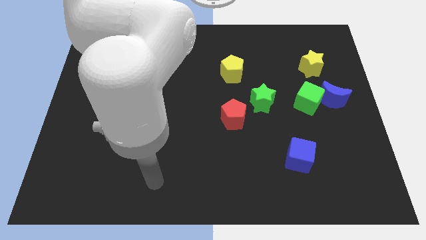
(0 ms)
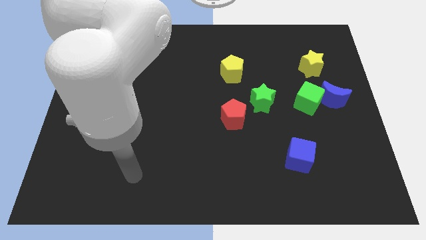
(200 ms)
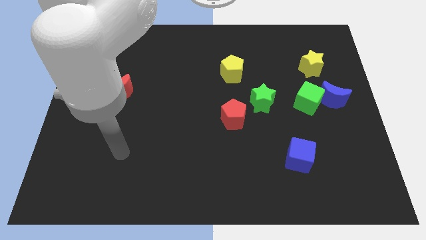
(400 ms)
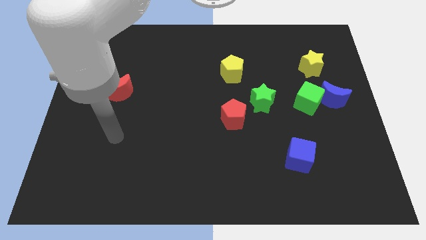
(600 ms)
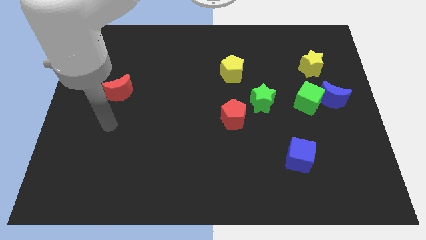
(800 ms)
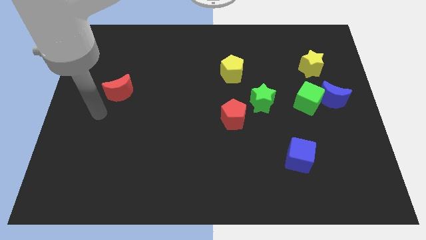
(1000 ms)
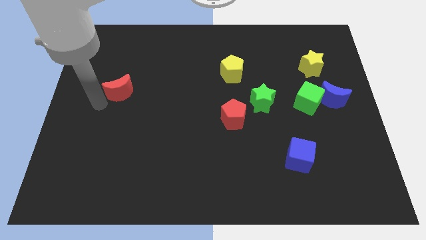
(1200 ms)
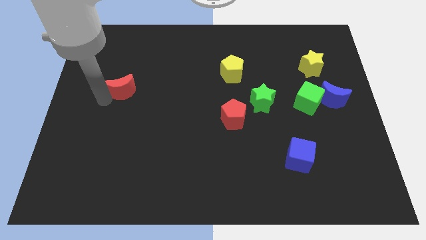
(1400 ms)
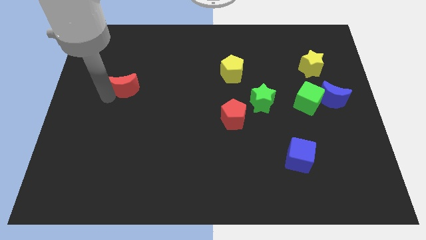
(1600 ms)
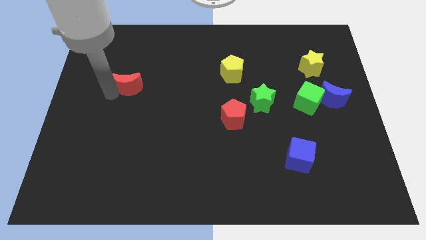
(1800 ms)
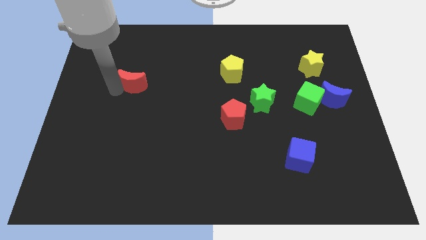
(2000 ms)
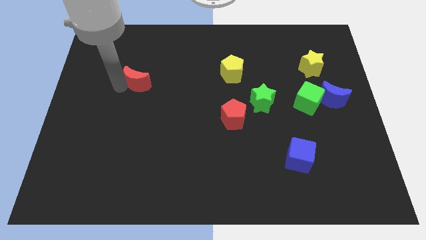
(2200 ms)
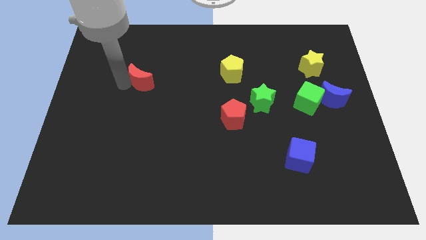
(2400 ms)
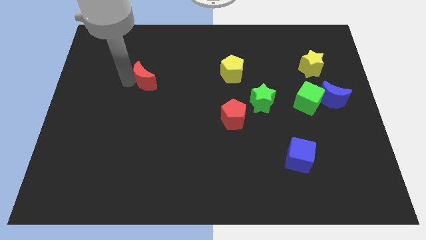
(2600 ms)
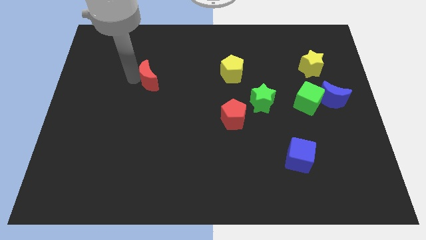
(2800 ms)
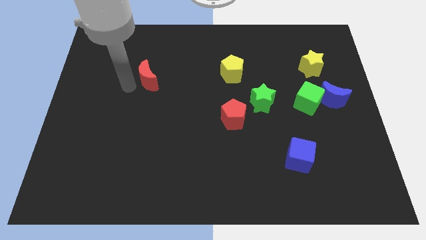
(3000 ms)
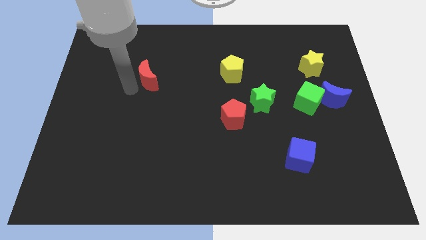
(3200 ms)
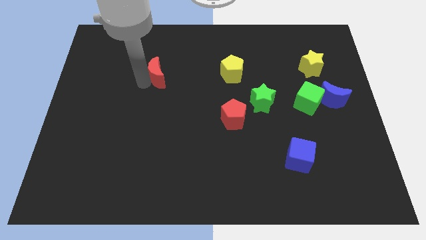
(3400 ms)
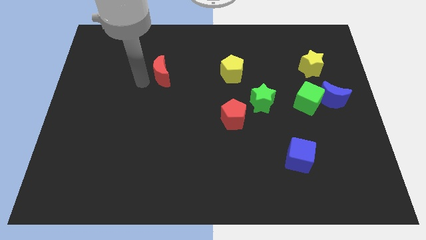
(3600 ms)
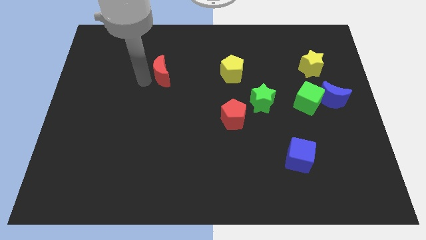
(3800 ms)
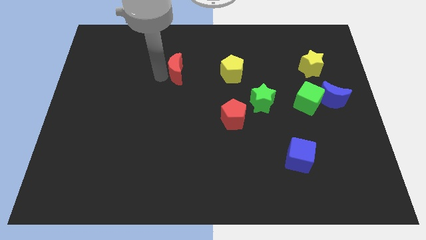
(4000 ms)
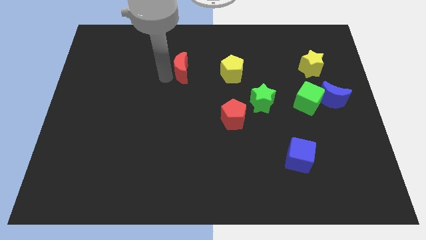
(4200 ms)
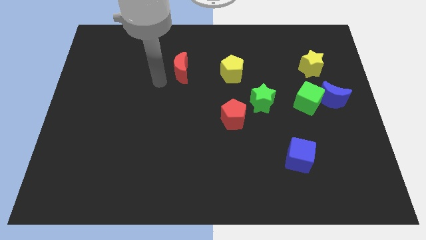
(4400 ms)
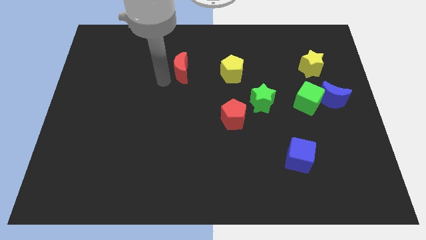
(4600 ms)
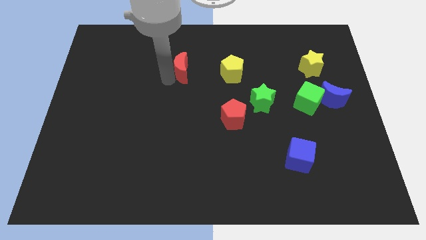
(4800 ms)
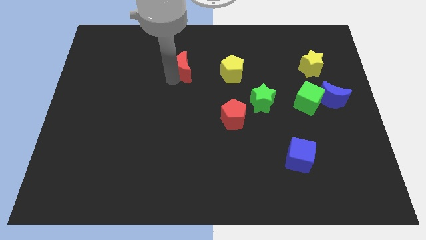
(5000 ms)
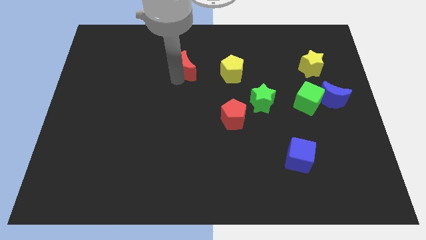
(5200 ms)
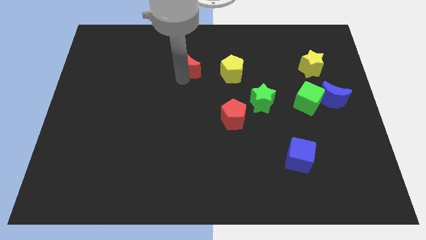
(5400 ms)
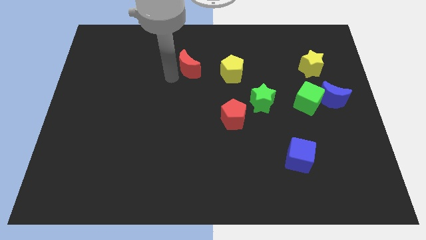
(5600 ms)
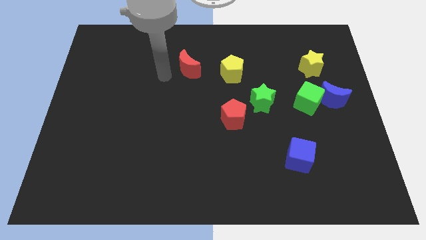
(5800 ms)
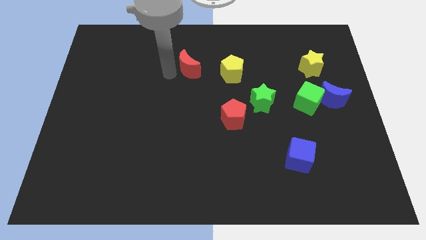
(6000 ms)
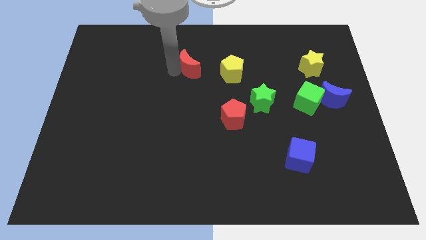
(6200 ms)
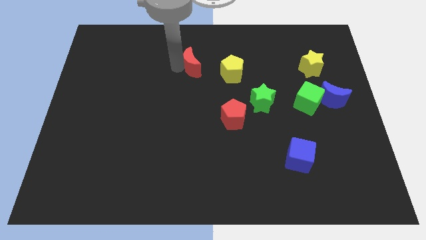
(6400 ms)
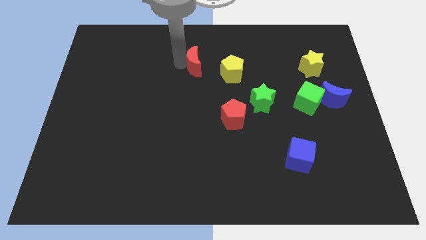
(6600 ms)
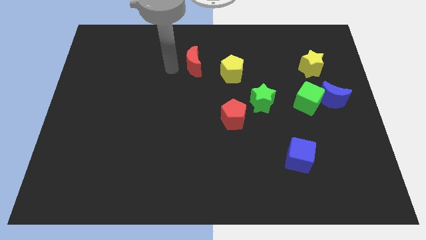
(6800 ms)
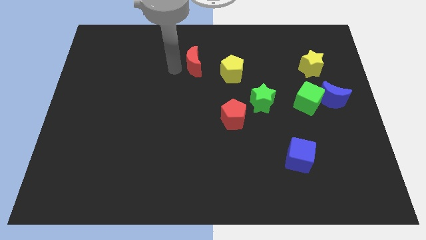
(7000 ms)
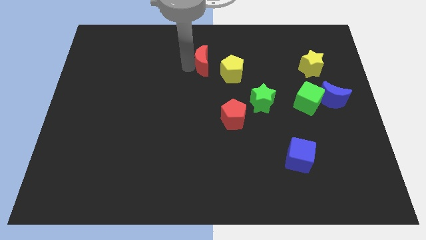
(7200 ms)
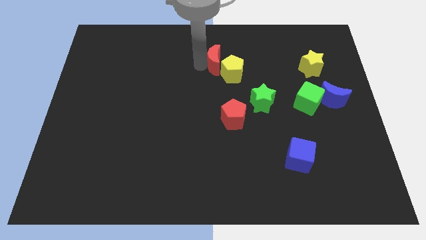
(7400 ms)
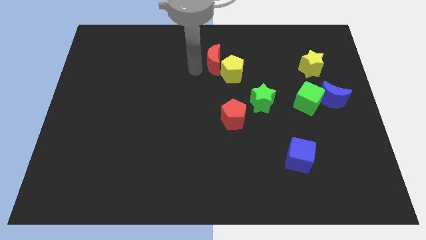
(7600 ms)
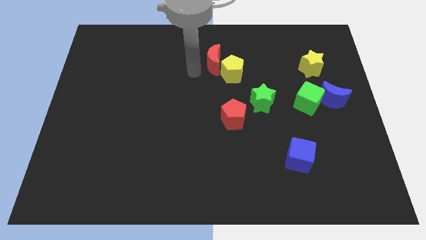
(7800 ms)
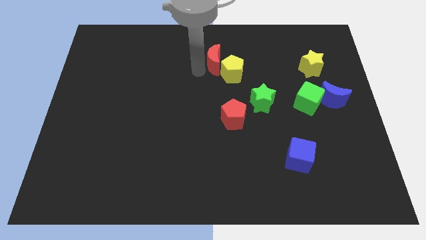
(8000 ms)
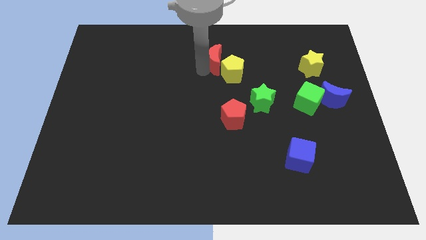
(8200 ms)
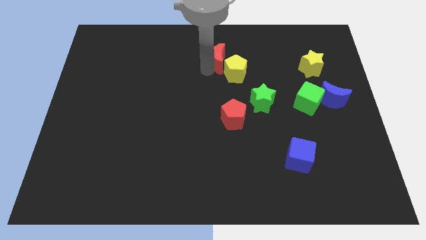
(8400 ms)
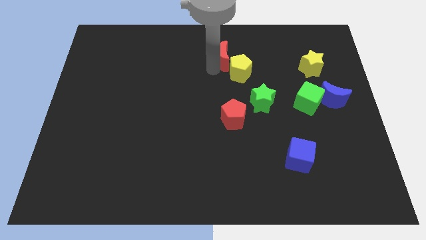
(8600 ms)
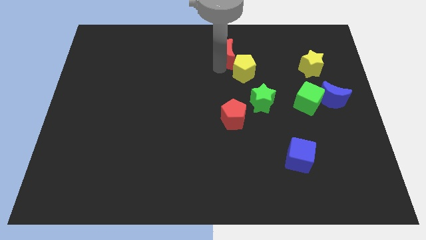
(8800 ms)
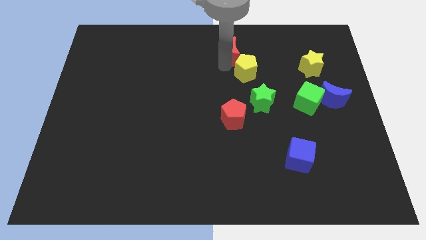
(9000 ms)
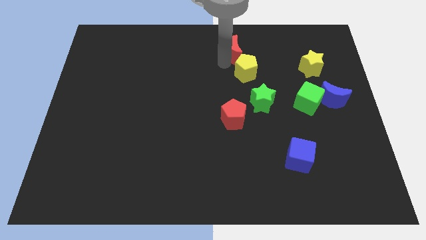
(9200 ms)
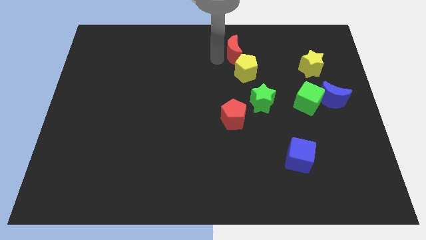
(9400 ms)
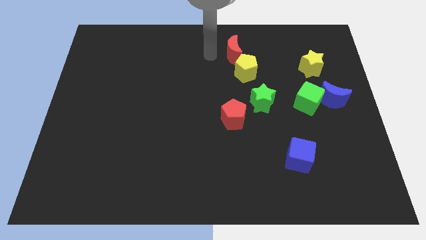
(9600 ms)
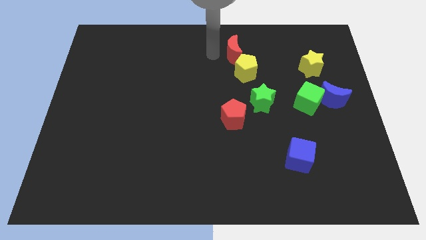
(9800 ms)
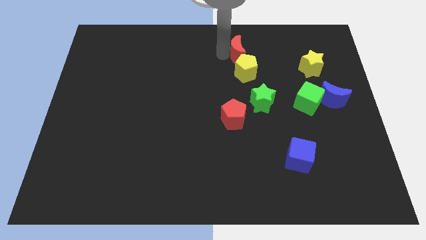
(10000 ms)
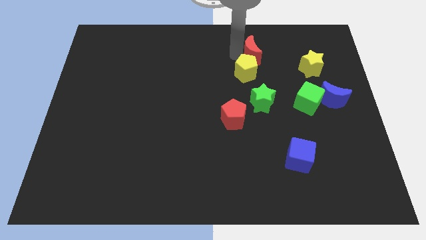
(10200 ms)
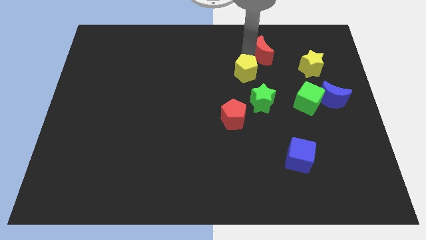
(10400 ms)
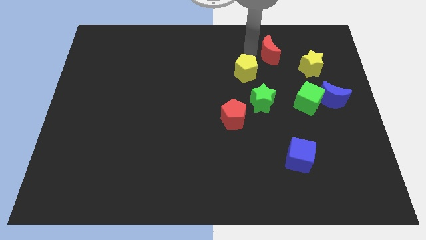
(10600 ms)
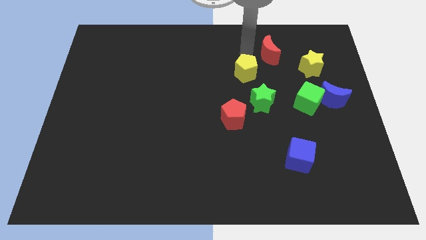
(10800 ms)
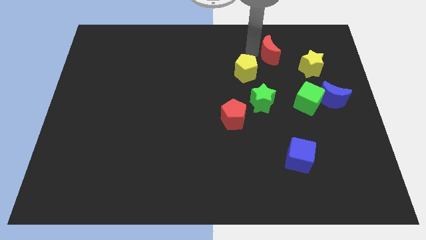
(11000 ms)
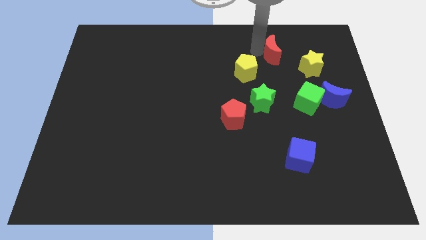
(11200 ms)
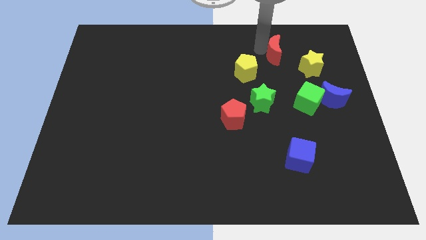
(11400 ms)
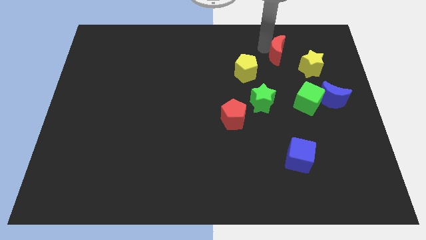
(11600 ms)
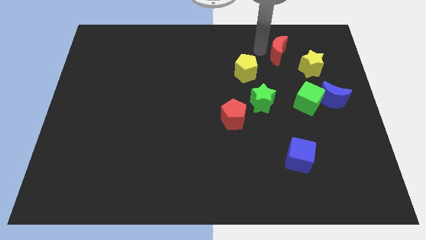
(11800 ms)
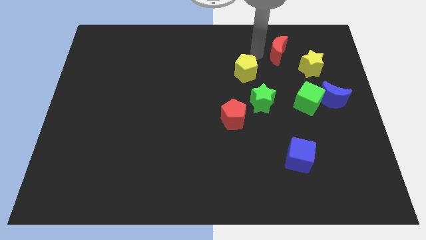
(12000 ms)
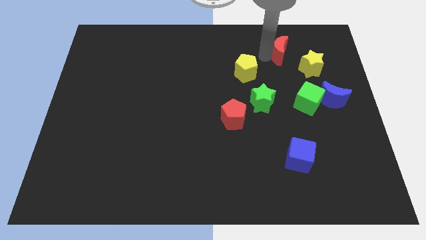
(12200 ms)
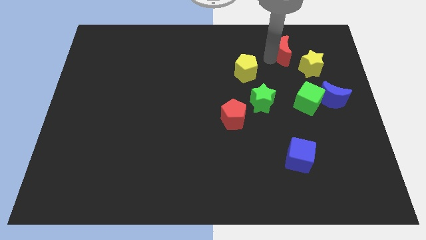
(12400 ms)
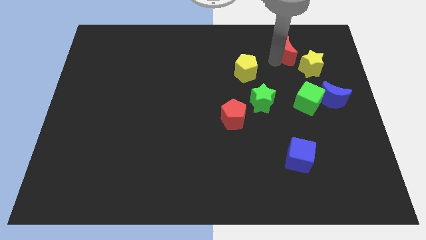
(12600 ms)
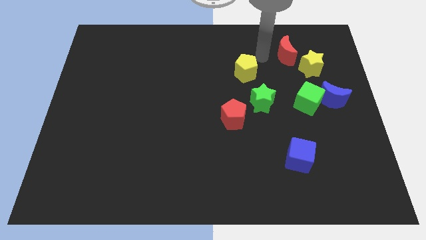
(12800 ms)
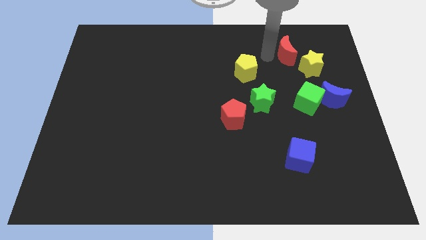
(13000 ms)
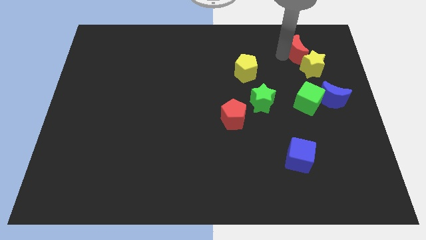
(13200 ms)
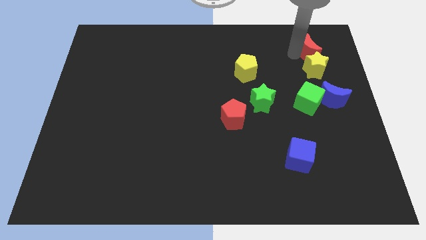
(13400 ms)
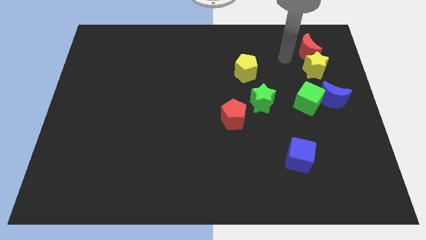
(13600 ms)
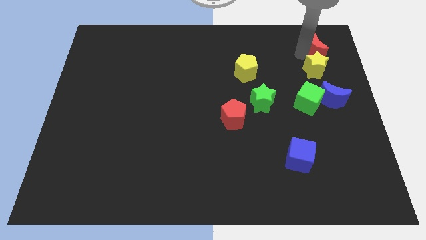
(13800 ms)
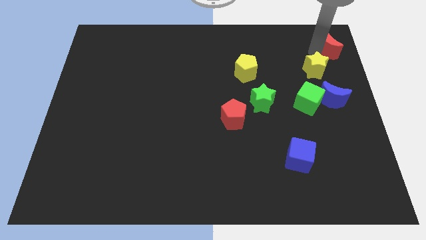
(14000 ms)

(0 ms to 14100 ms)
move the red moon to the top right
